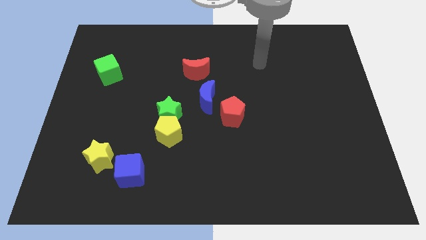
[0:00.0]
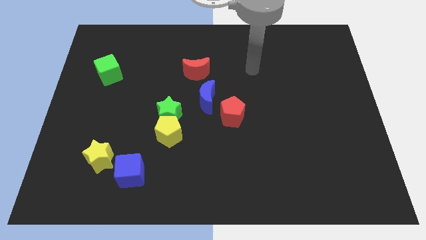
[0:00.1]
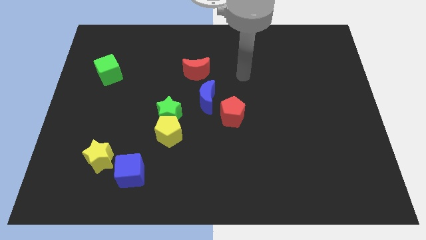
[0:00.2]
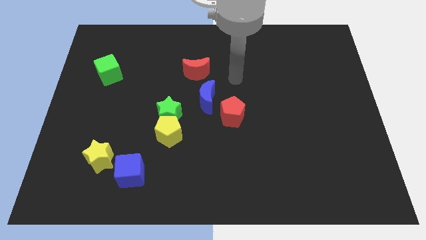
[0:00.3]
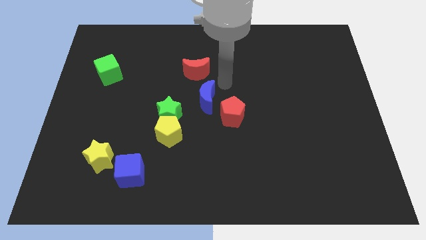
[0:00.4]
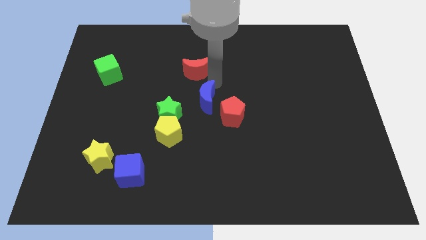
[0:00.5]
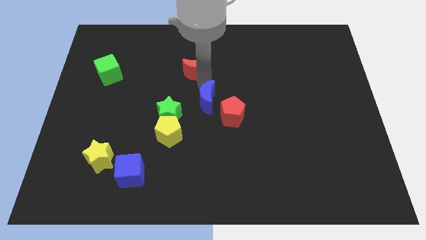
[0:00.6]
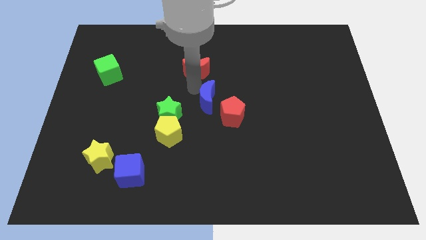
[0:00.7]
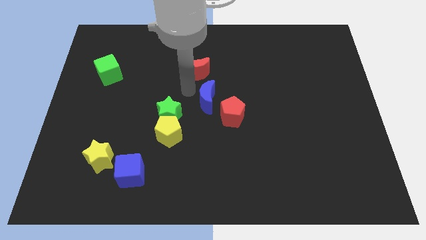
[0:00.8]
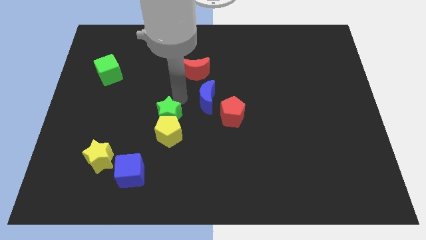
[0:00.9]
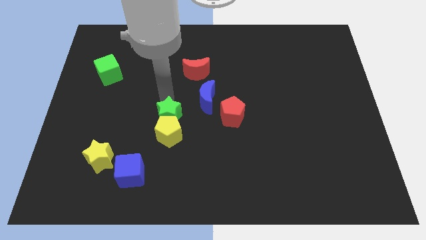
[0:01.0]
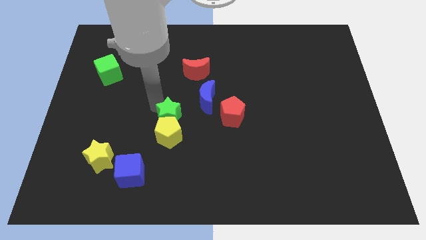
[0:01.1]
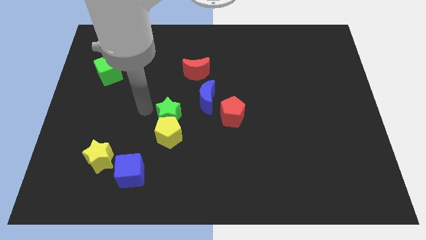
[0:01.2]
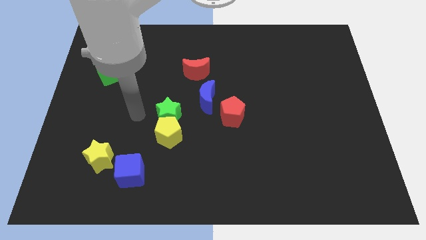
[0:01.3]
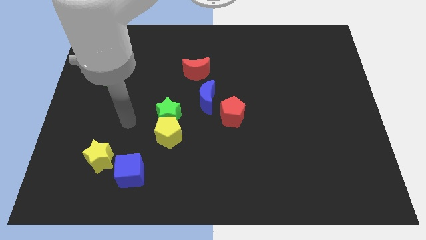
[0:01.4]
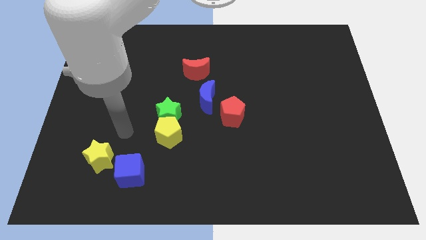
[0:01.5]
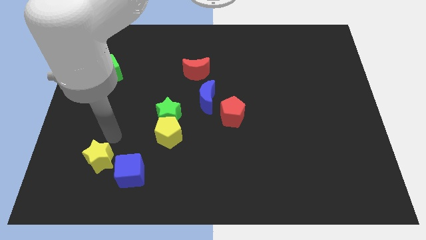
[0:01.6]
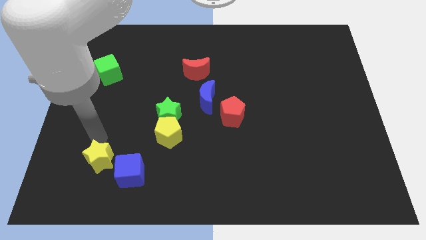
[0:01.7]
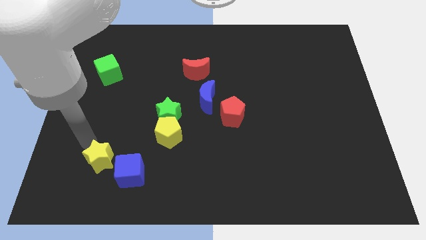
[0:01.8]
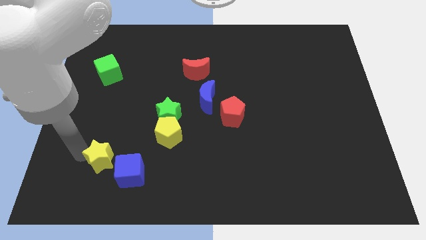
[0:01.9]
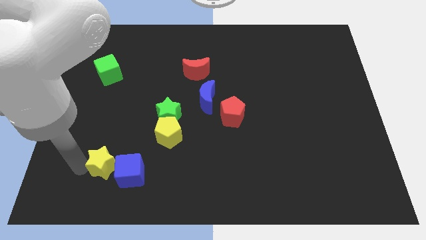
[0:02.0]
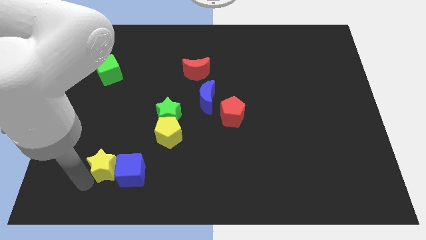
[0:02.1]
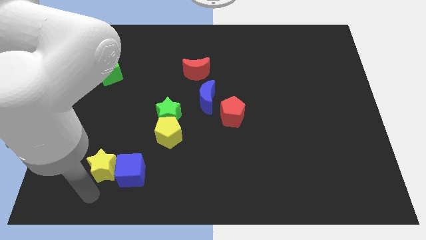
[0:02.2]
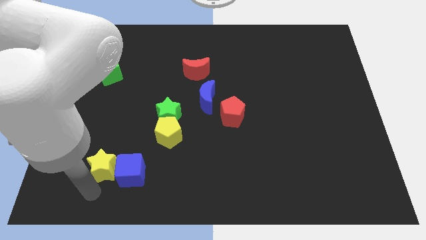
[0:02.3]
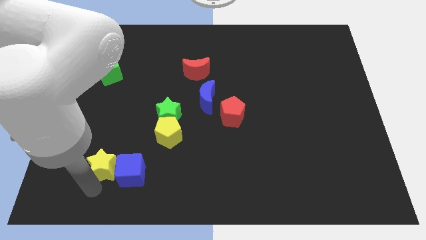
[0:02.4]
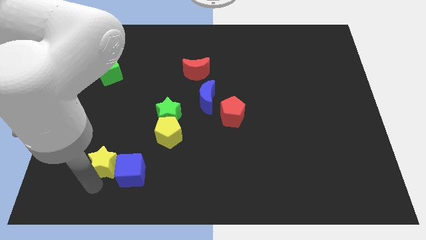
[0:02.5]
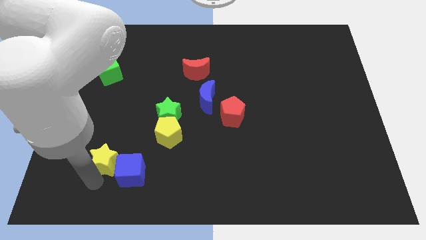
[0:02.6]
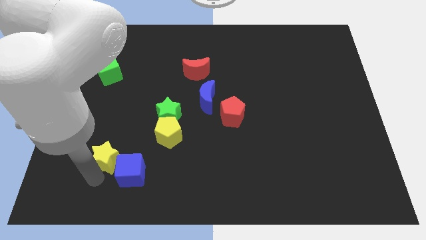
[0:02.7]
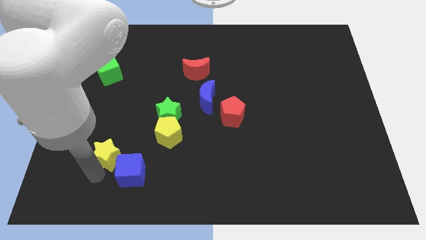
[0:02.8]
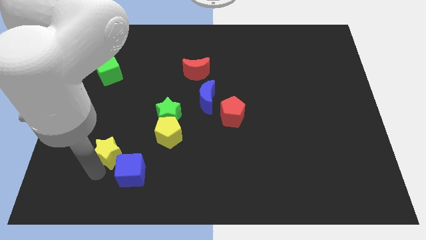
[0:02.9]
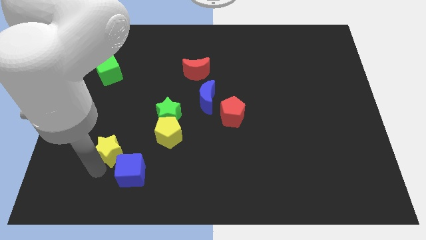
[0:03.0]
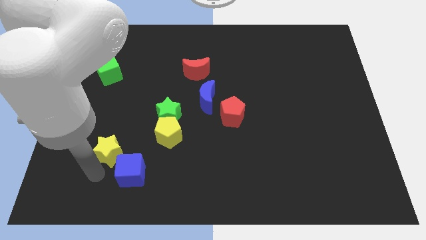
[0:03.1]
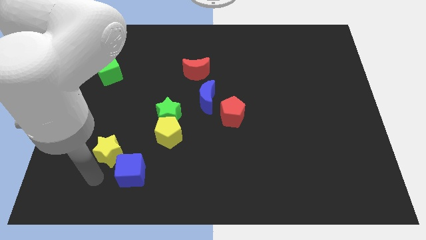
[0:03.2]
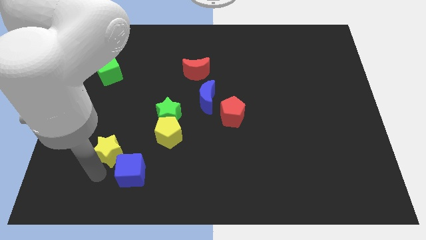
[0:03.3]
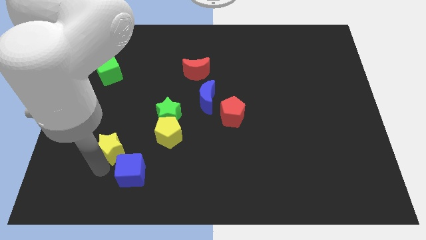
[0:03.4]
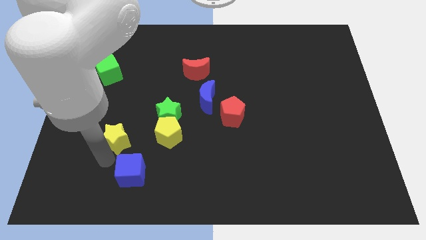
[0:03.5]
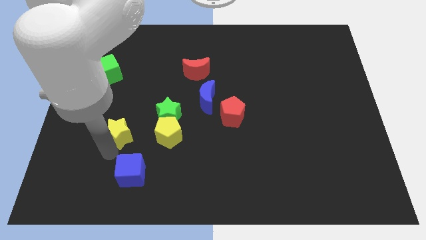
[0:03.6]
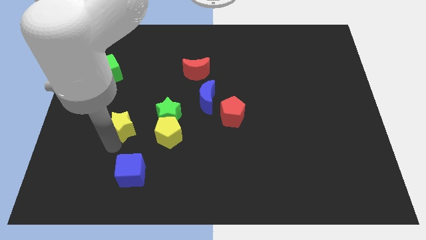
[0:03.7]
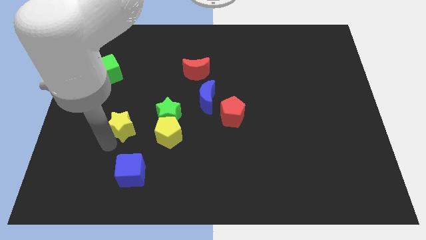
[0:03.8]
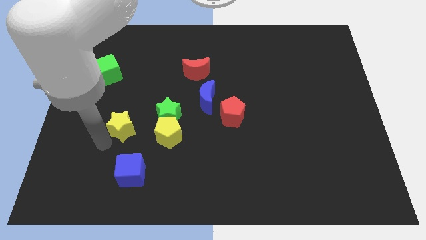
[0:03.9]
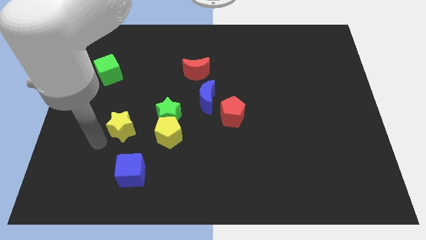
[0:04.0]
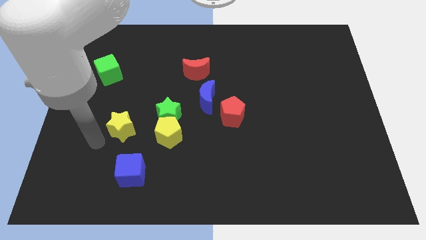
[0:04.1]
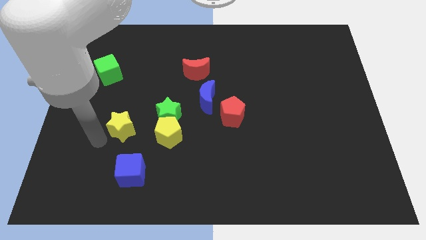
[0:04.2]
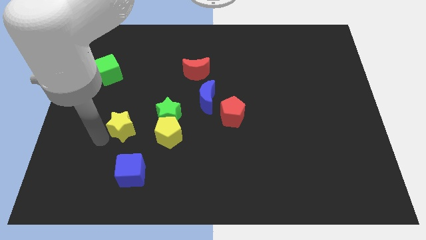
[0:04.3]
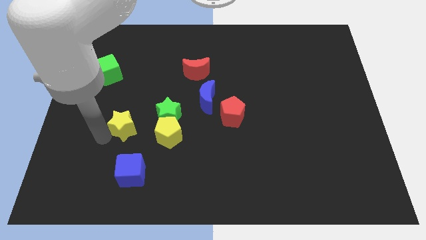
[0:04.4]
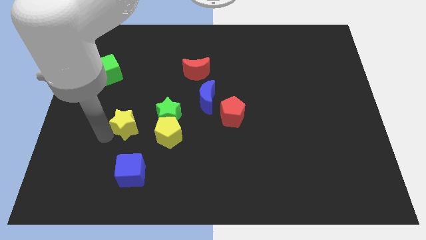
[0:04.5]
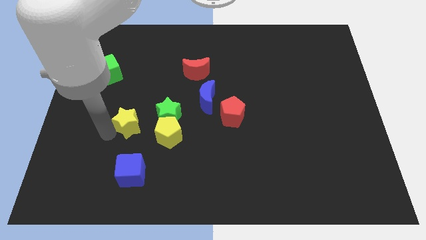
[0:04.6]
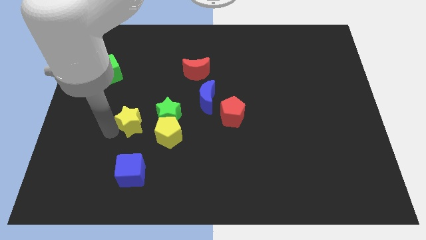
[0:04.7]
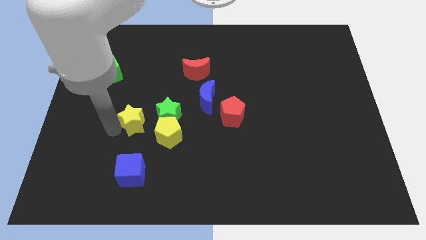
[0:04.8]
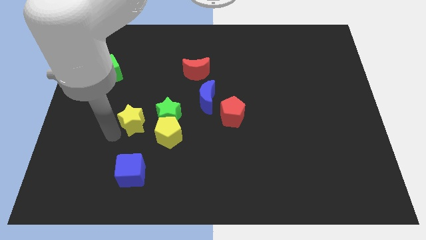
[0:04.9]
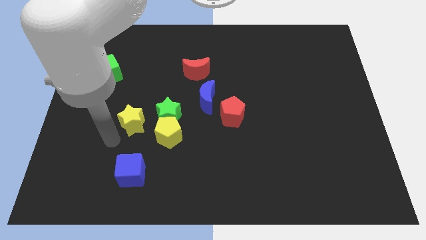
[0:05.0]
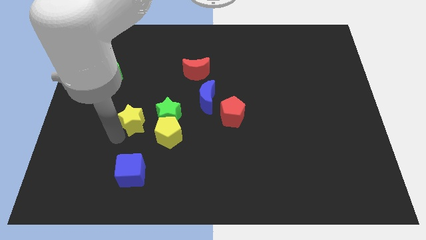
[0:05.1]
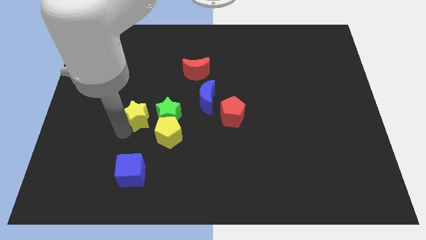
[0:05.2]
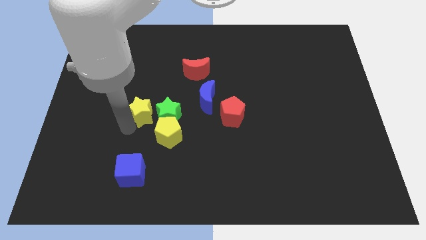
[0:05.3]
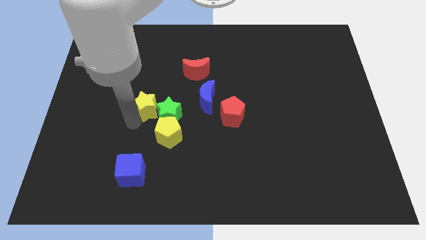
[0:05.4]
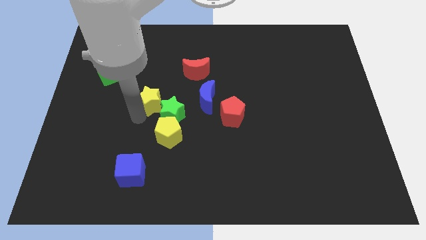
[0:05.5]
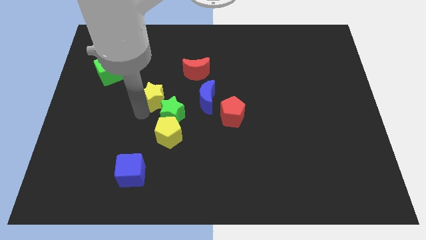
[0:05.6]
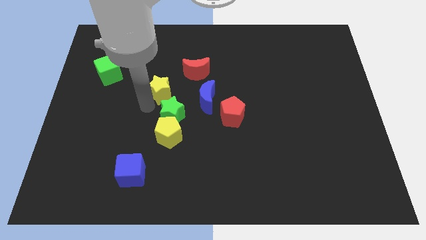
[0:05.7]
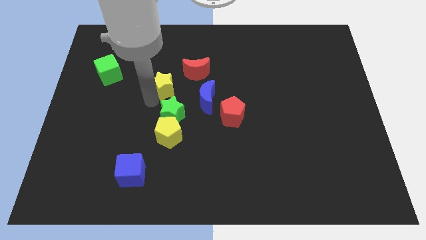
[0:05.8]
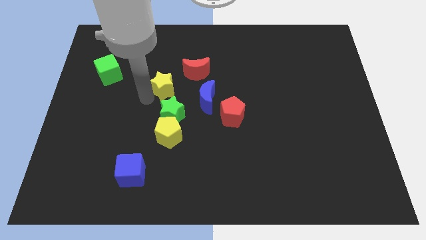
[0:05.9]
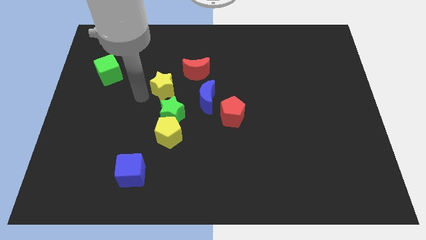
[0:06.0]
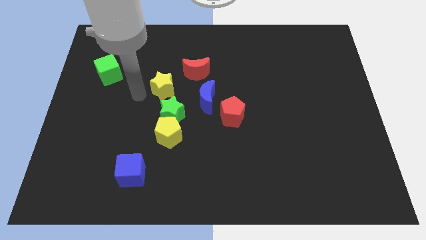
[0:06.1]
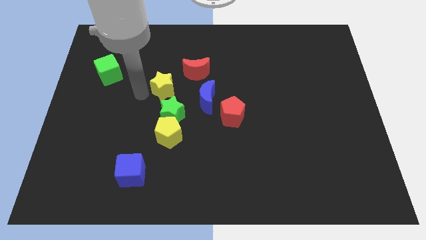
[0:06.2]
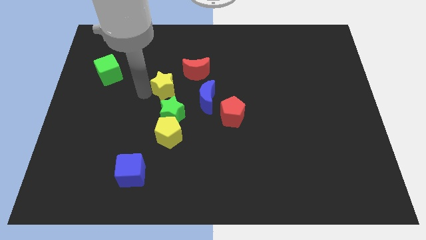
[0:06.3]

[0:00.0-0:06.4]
put the yellow star to the top left of the blue moon
